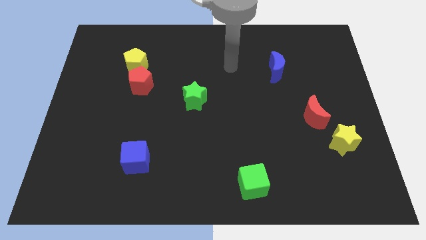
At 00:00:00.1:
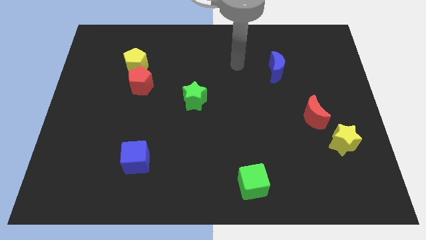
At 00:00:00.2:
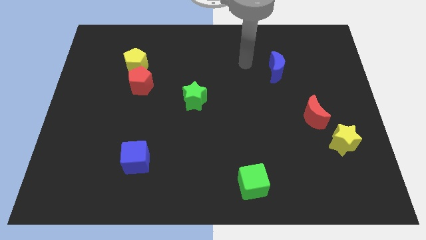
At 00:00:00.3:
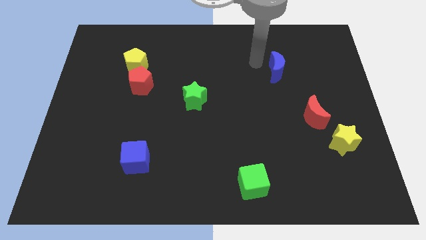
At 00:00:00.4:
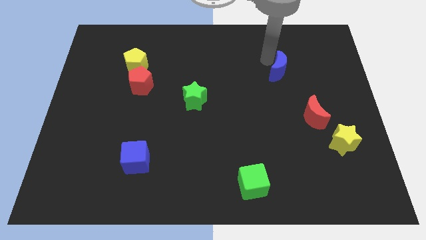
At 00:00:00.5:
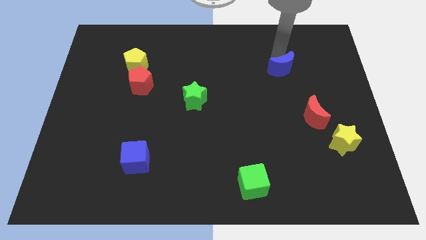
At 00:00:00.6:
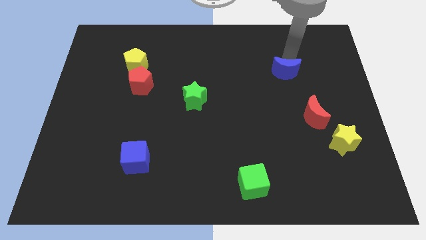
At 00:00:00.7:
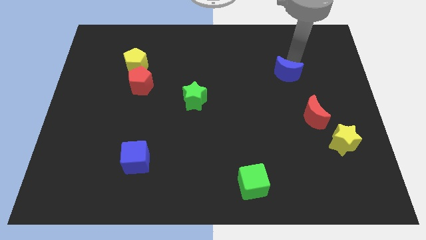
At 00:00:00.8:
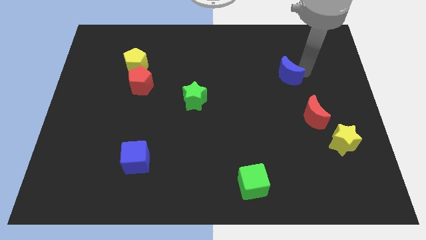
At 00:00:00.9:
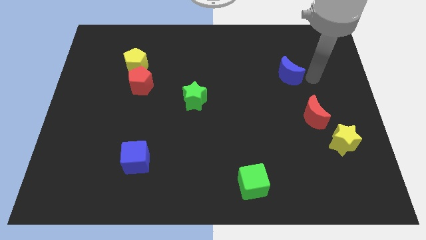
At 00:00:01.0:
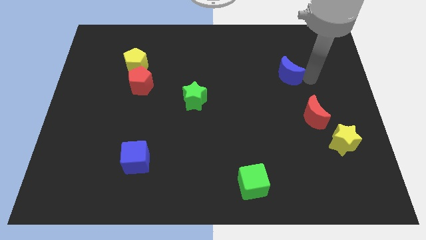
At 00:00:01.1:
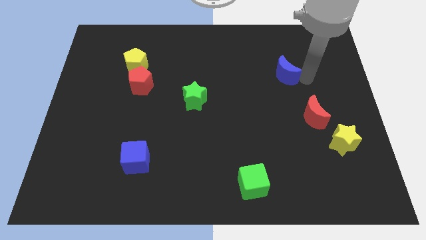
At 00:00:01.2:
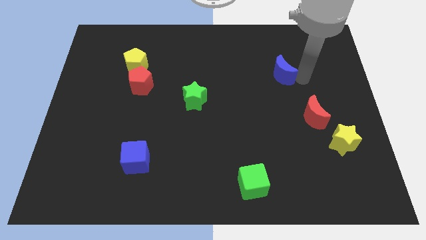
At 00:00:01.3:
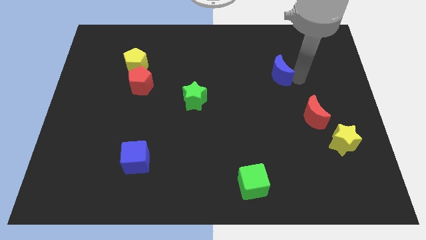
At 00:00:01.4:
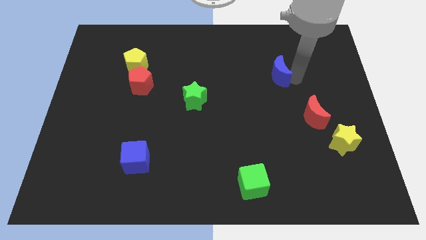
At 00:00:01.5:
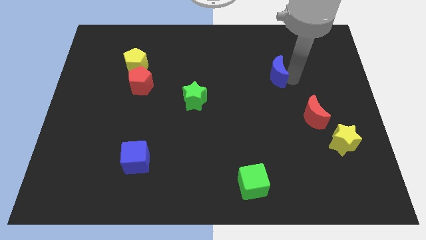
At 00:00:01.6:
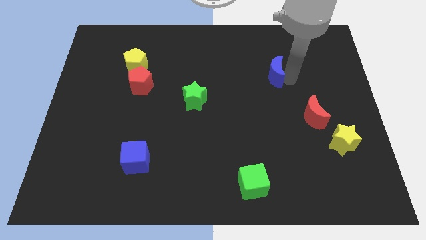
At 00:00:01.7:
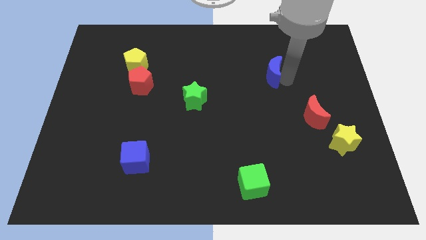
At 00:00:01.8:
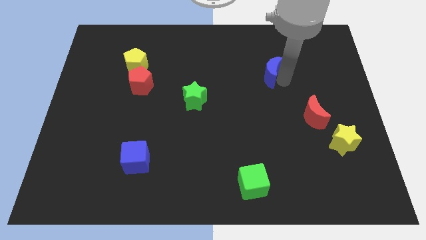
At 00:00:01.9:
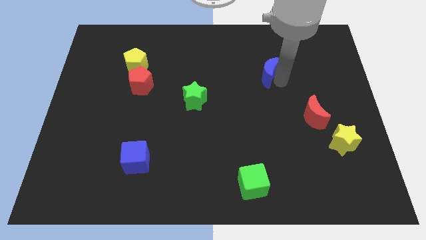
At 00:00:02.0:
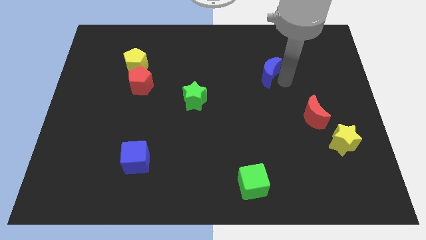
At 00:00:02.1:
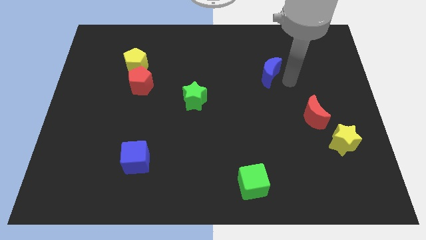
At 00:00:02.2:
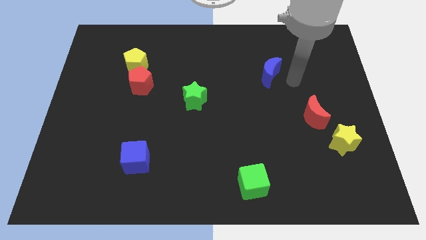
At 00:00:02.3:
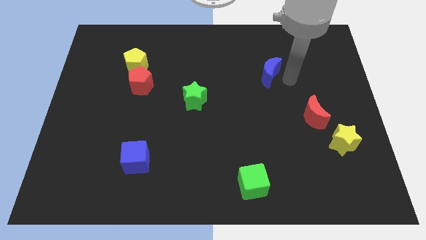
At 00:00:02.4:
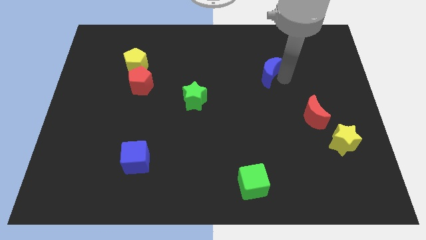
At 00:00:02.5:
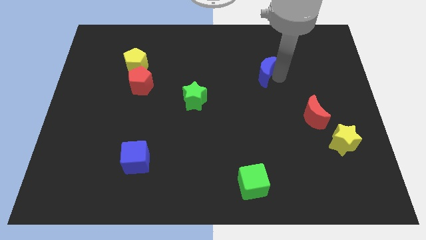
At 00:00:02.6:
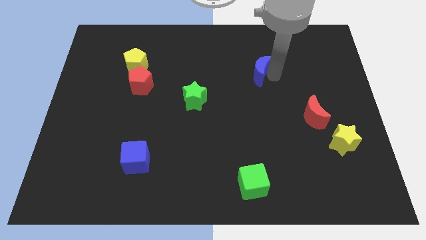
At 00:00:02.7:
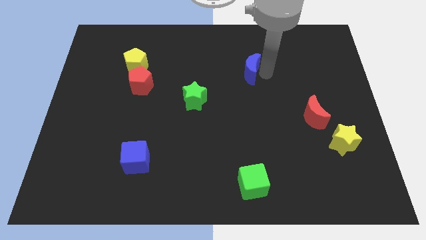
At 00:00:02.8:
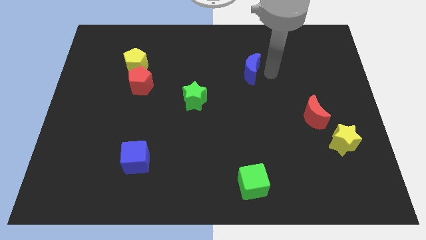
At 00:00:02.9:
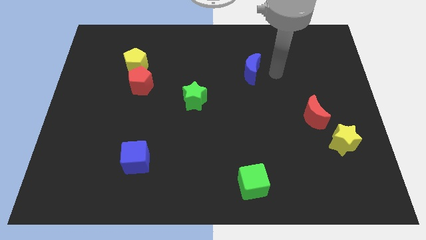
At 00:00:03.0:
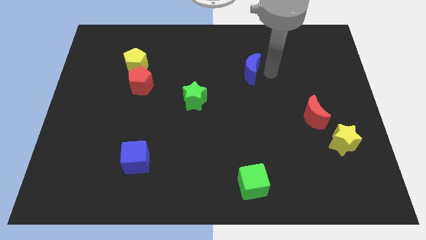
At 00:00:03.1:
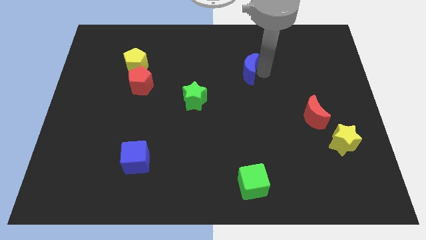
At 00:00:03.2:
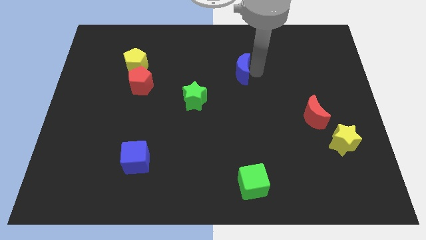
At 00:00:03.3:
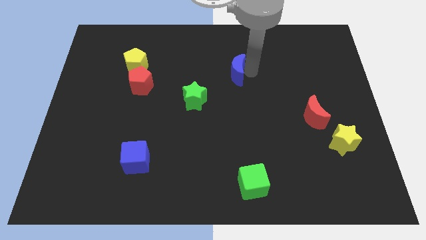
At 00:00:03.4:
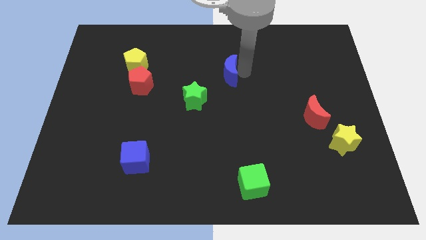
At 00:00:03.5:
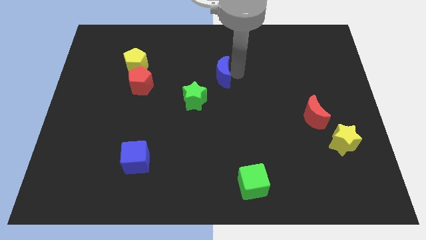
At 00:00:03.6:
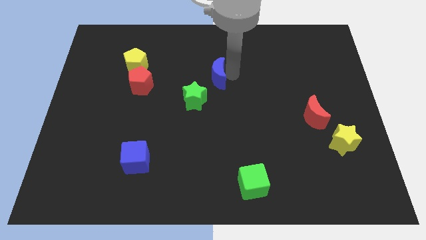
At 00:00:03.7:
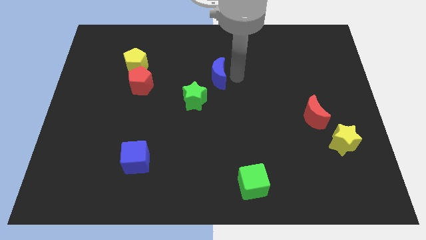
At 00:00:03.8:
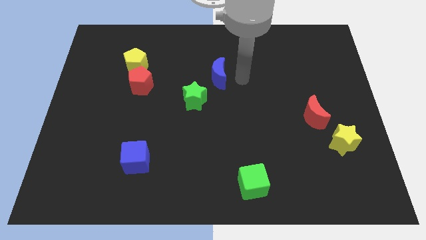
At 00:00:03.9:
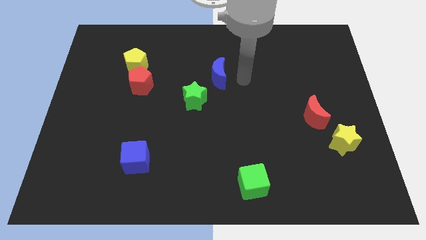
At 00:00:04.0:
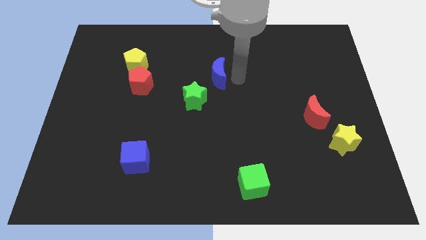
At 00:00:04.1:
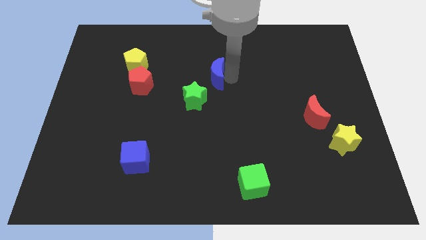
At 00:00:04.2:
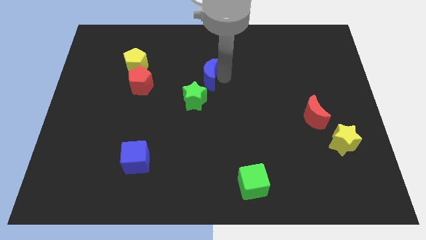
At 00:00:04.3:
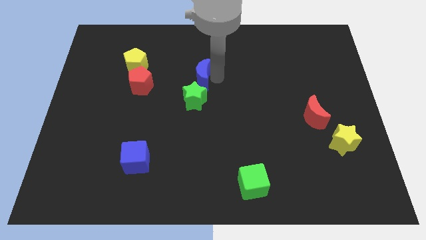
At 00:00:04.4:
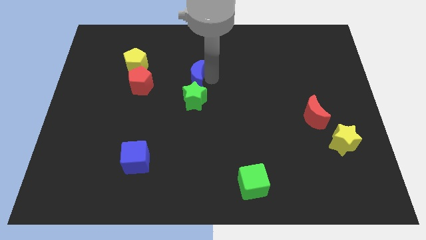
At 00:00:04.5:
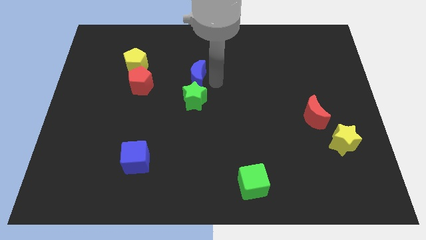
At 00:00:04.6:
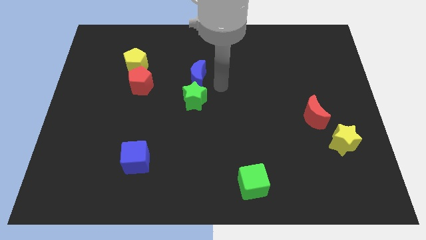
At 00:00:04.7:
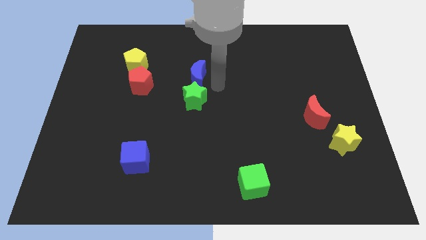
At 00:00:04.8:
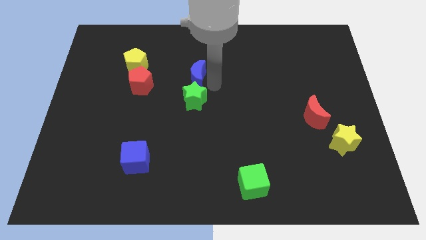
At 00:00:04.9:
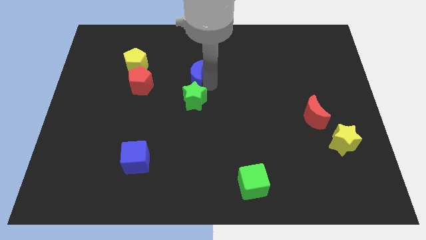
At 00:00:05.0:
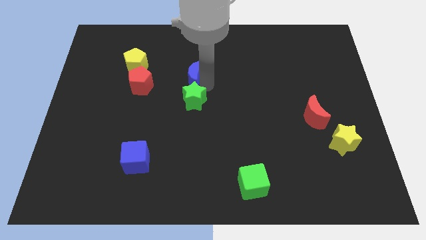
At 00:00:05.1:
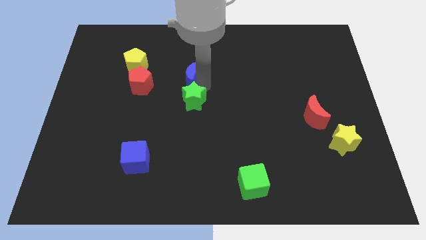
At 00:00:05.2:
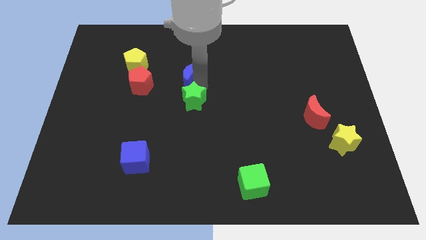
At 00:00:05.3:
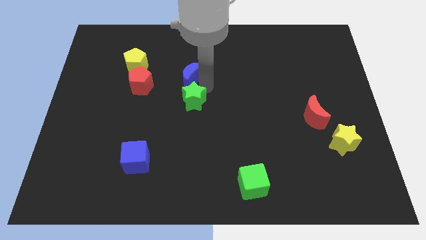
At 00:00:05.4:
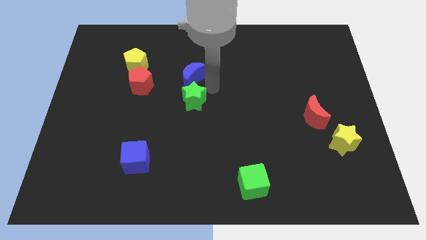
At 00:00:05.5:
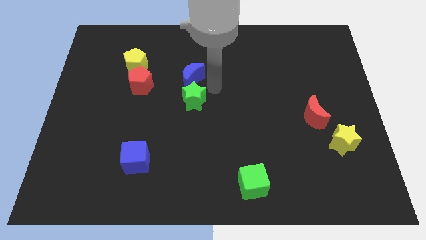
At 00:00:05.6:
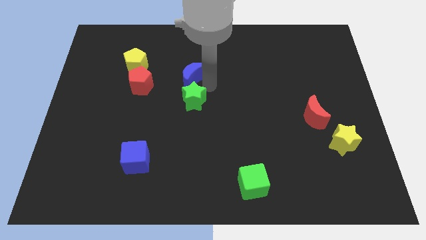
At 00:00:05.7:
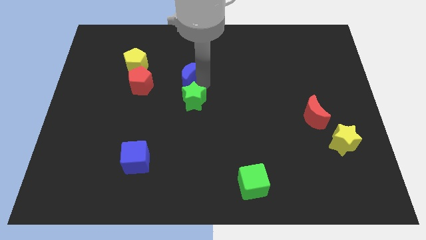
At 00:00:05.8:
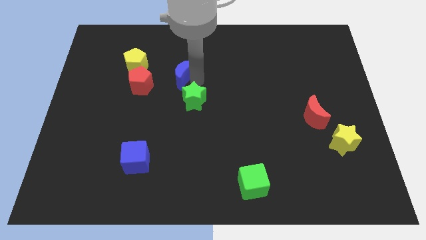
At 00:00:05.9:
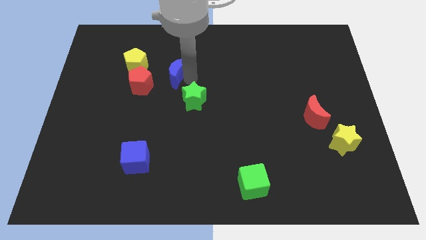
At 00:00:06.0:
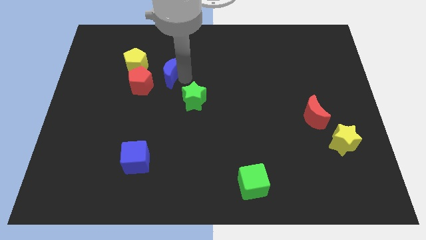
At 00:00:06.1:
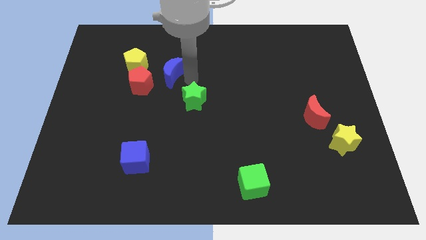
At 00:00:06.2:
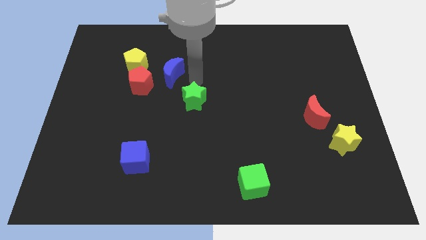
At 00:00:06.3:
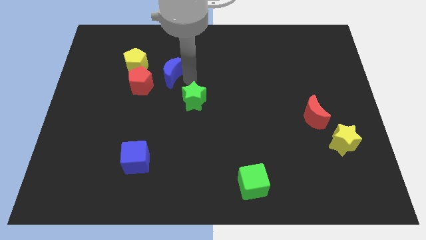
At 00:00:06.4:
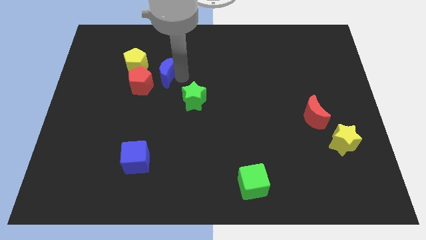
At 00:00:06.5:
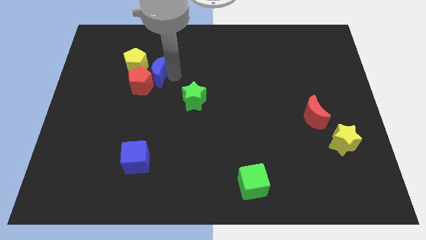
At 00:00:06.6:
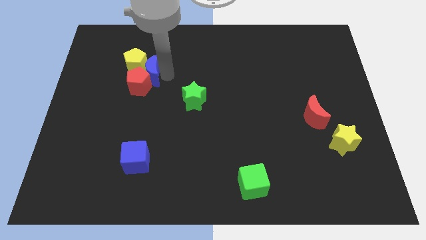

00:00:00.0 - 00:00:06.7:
put the blue moon close to the yellow pentagon

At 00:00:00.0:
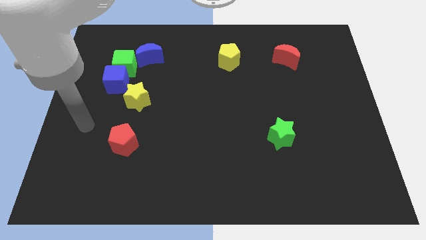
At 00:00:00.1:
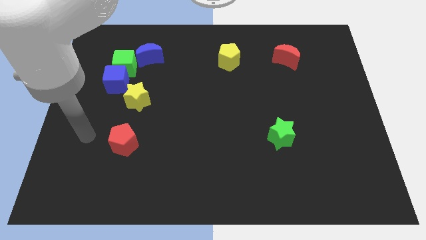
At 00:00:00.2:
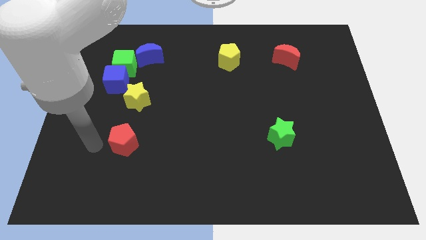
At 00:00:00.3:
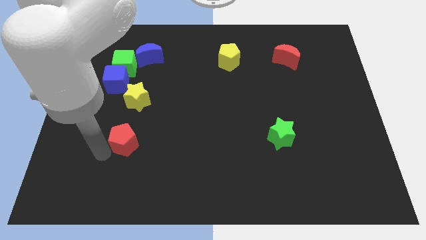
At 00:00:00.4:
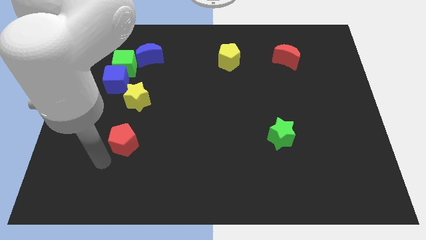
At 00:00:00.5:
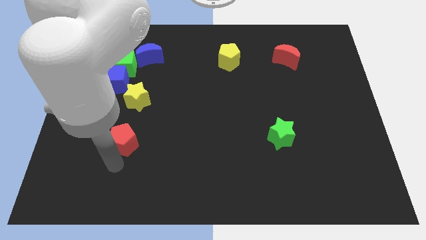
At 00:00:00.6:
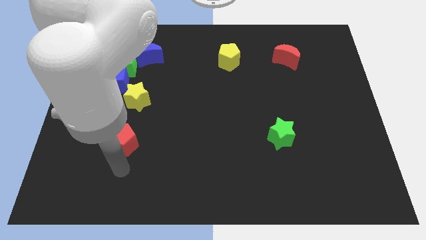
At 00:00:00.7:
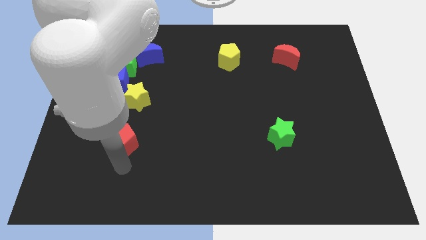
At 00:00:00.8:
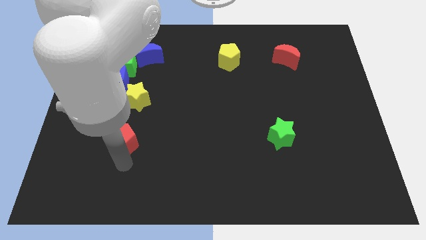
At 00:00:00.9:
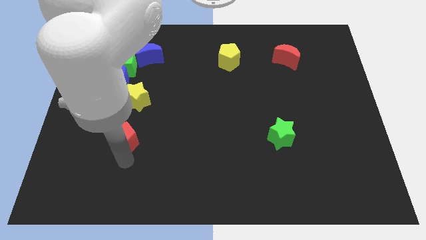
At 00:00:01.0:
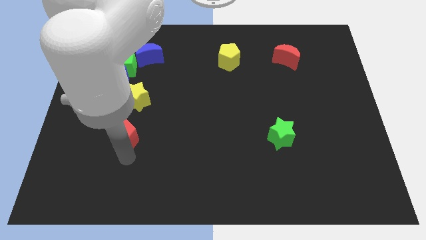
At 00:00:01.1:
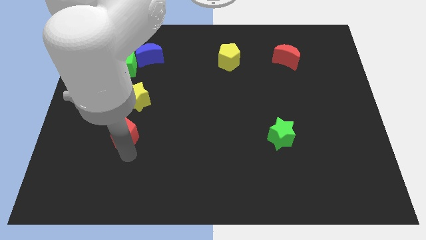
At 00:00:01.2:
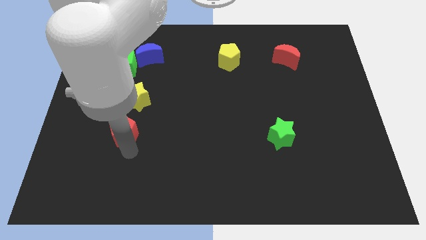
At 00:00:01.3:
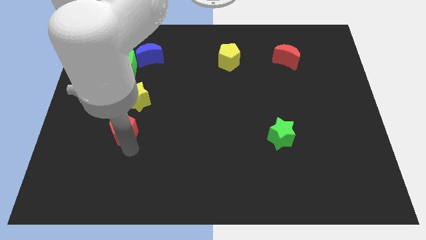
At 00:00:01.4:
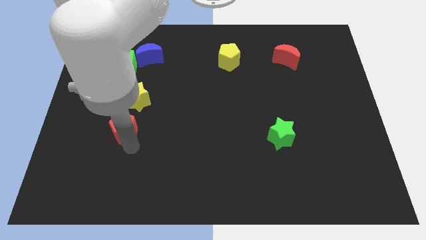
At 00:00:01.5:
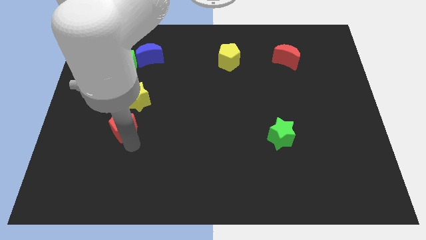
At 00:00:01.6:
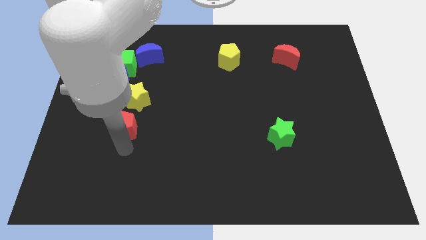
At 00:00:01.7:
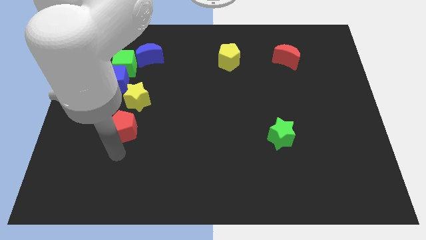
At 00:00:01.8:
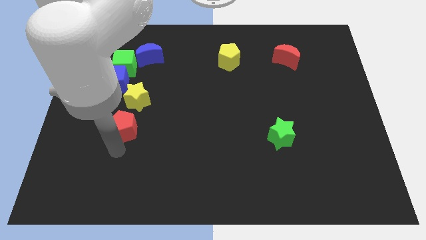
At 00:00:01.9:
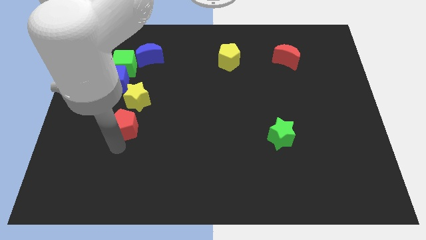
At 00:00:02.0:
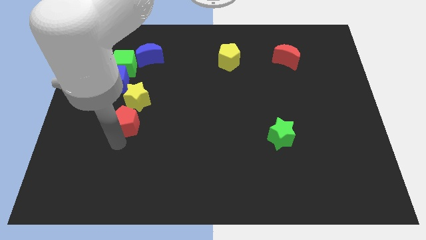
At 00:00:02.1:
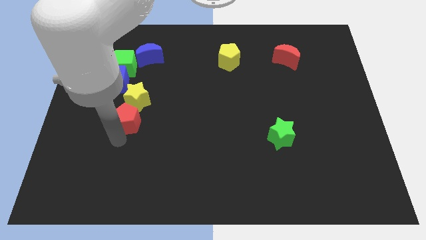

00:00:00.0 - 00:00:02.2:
put the red pentagon towards the yellow star
